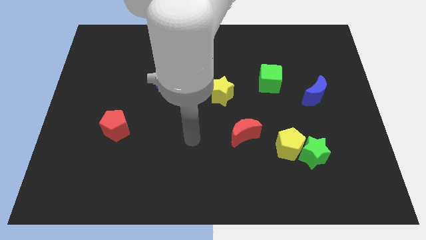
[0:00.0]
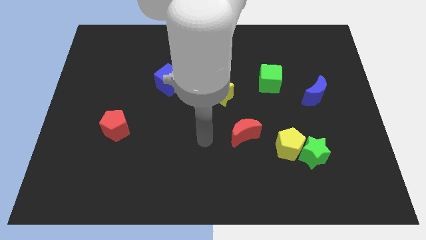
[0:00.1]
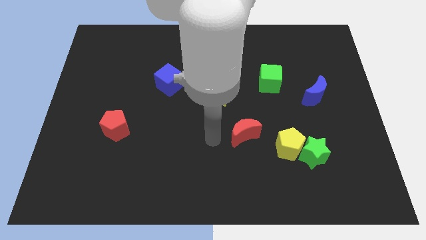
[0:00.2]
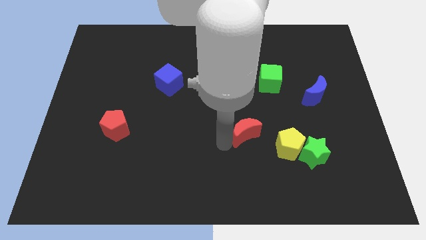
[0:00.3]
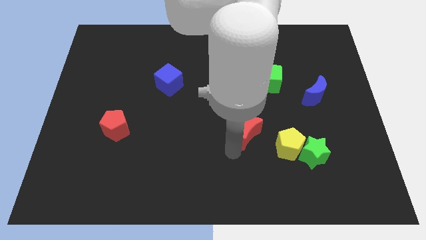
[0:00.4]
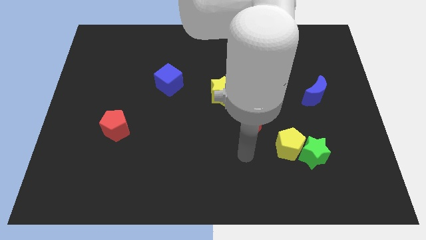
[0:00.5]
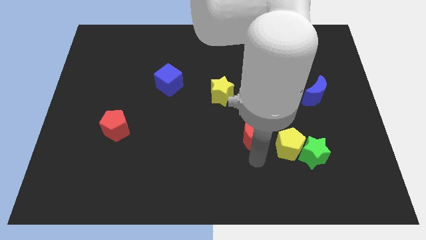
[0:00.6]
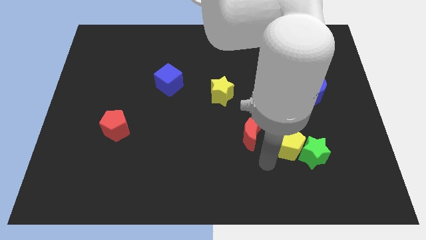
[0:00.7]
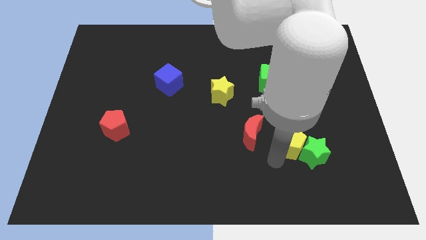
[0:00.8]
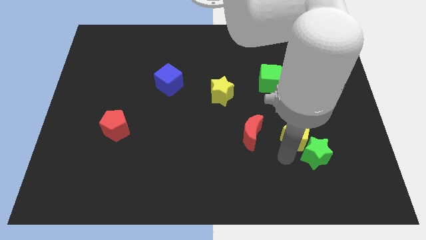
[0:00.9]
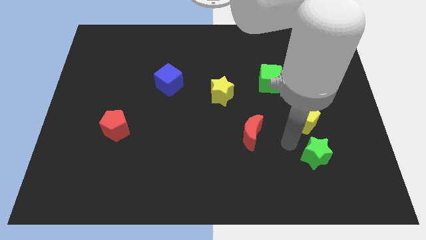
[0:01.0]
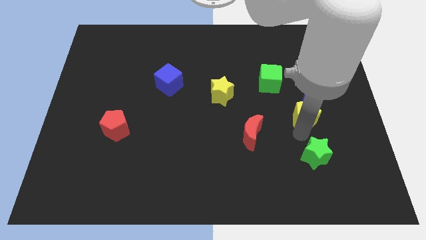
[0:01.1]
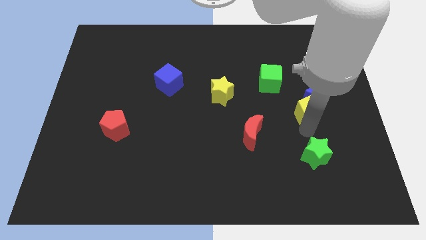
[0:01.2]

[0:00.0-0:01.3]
separate the green star from the yellow pentagon

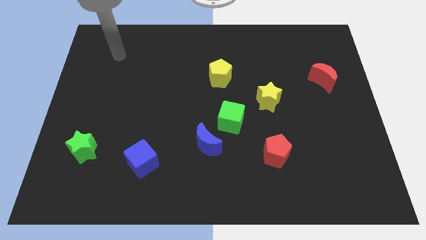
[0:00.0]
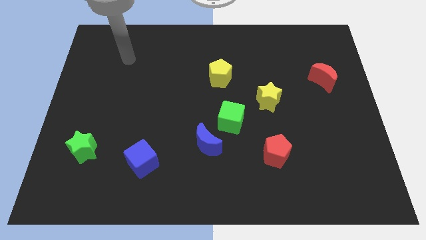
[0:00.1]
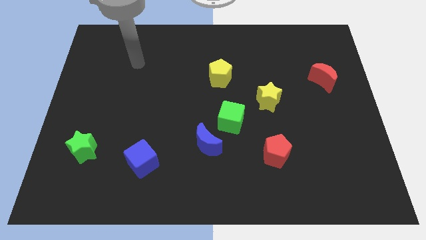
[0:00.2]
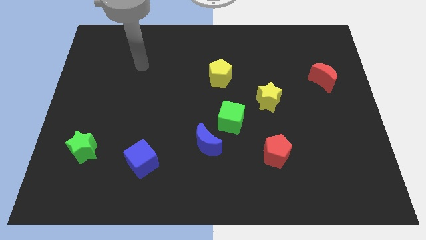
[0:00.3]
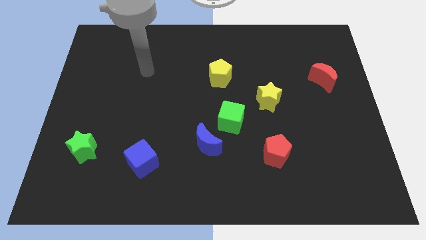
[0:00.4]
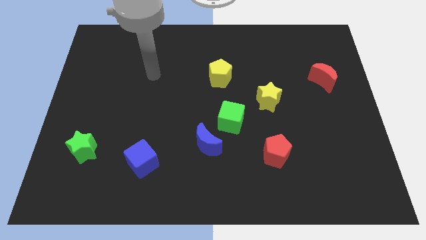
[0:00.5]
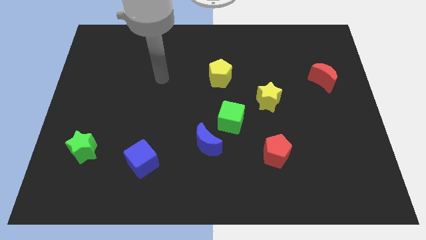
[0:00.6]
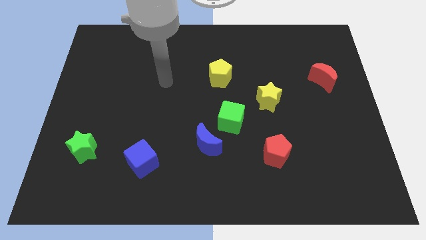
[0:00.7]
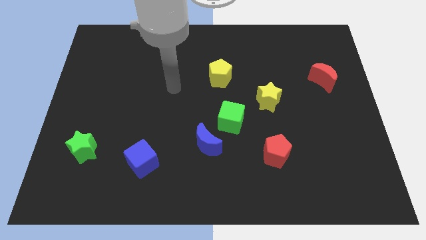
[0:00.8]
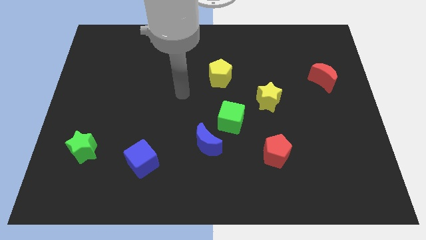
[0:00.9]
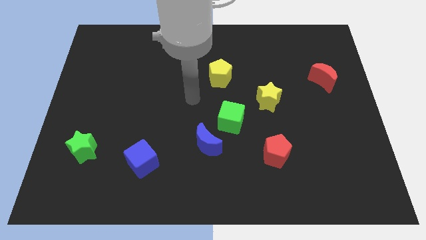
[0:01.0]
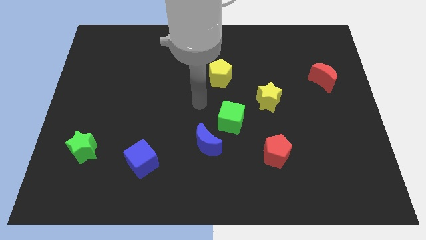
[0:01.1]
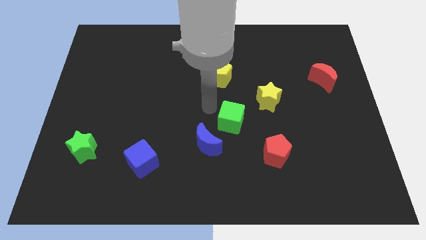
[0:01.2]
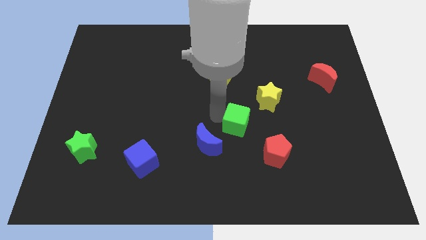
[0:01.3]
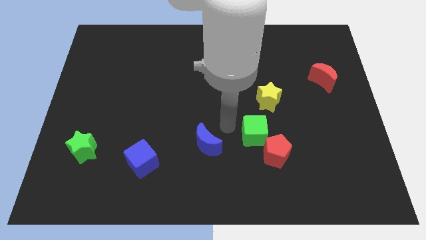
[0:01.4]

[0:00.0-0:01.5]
move the blue moon away from the green cube

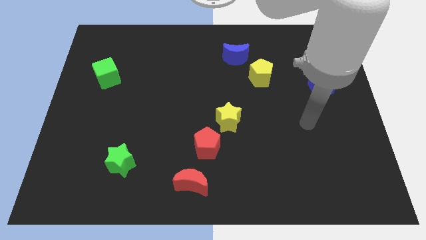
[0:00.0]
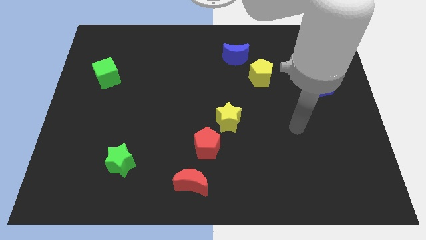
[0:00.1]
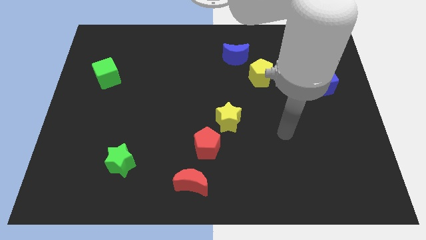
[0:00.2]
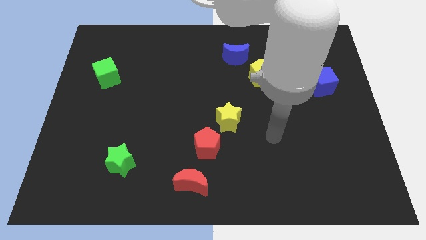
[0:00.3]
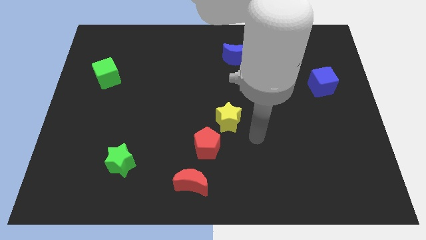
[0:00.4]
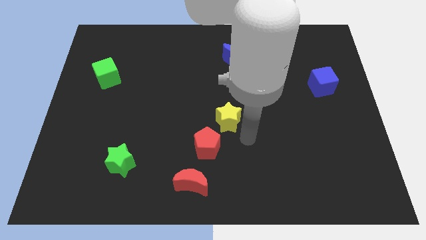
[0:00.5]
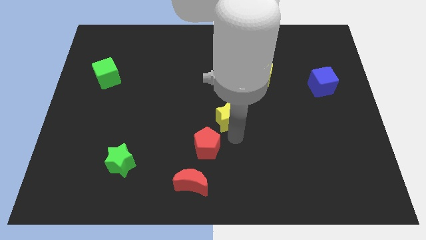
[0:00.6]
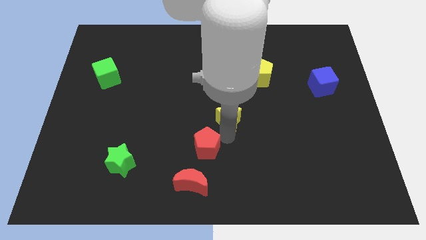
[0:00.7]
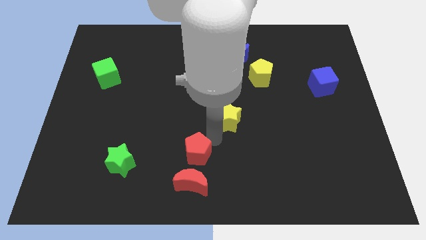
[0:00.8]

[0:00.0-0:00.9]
move the yellow star away from the red pentagon

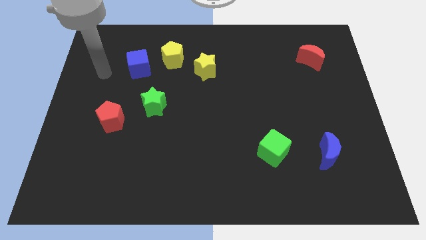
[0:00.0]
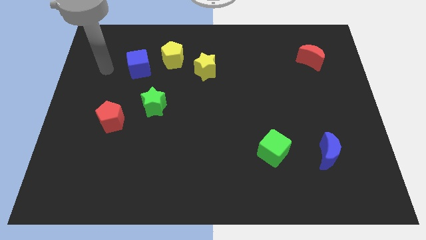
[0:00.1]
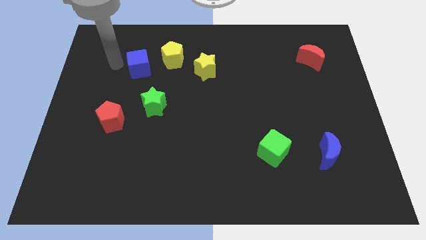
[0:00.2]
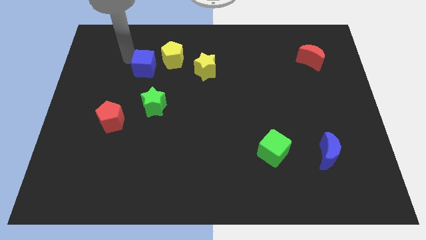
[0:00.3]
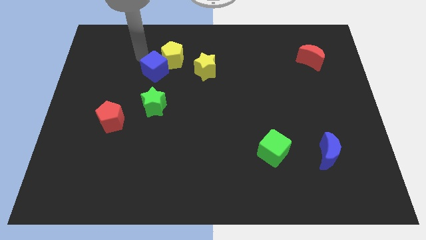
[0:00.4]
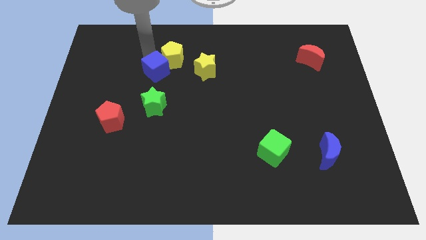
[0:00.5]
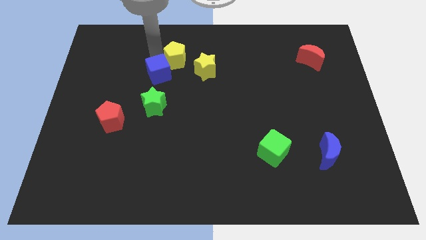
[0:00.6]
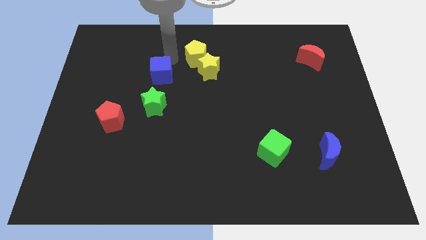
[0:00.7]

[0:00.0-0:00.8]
pull the blue cube apart from the yellow pentagon

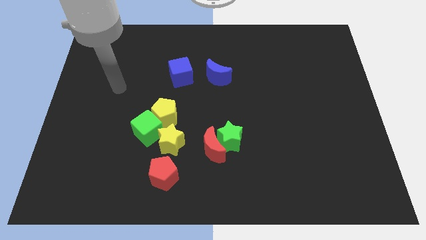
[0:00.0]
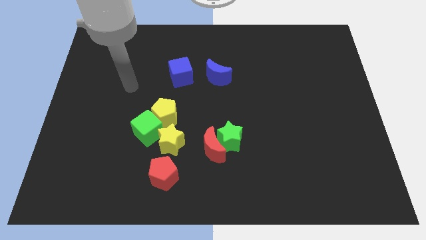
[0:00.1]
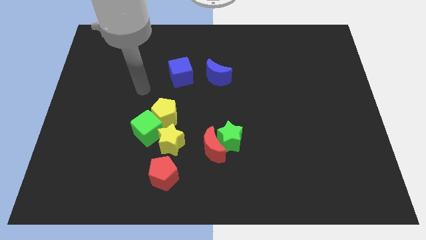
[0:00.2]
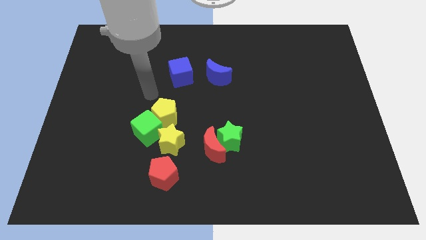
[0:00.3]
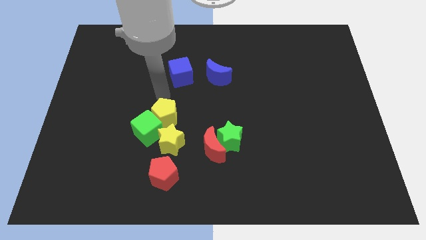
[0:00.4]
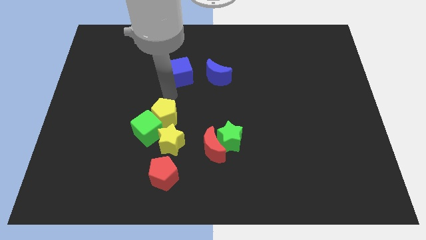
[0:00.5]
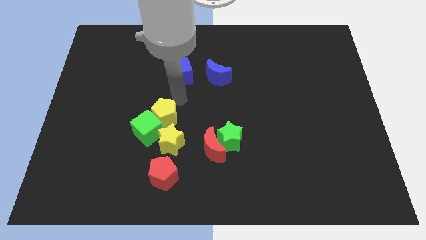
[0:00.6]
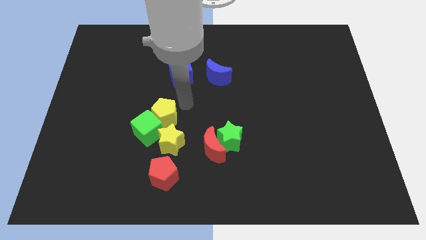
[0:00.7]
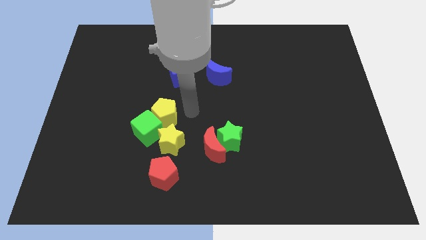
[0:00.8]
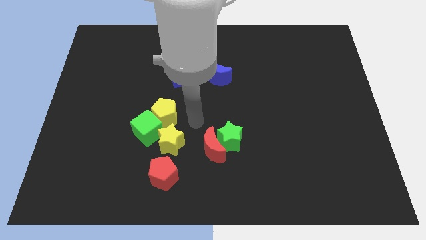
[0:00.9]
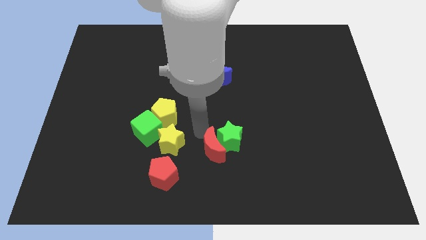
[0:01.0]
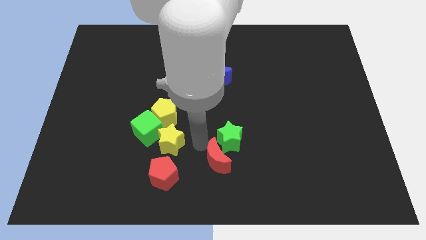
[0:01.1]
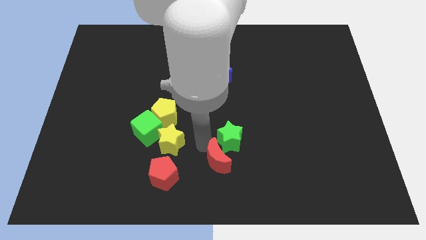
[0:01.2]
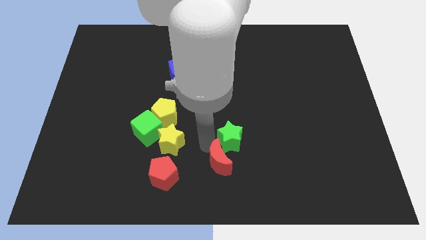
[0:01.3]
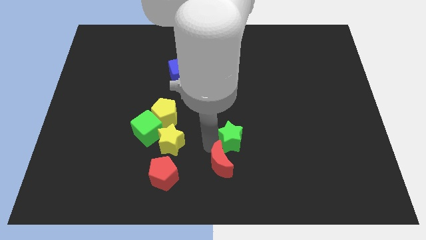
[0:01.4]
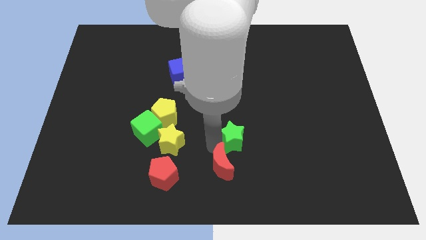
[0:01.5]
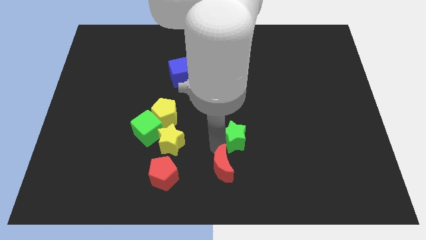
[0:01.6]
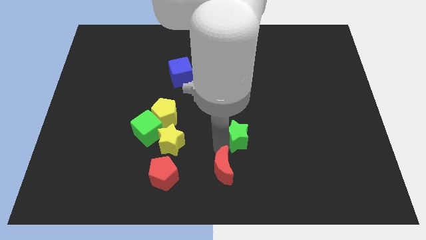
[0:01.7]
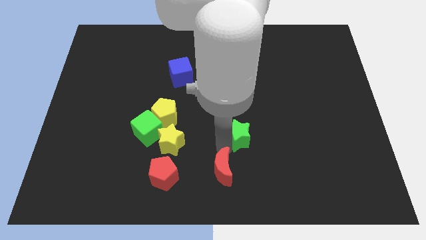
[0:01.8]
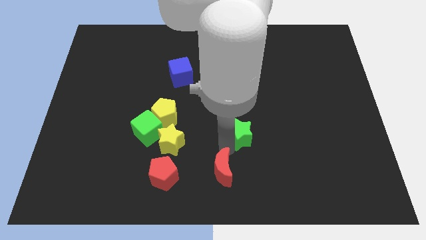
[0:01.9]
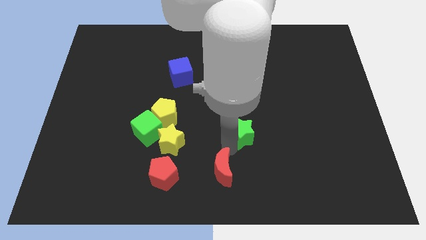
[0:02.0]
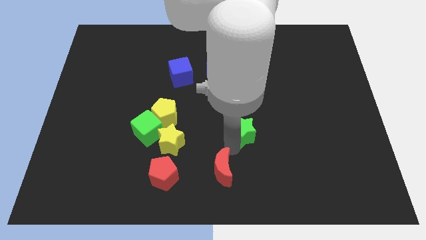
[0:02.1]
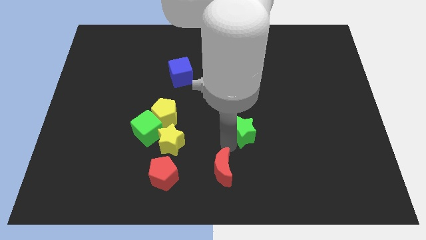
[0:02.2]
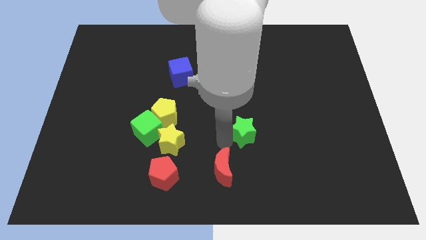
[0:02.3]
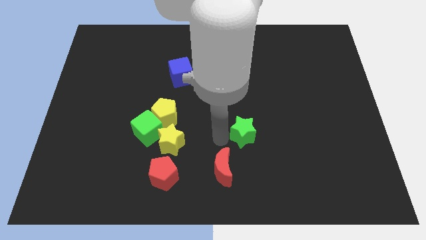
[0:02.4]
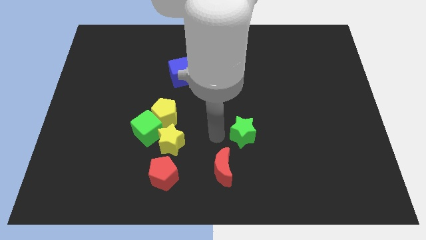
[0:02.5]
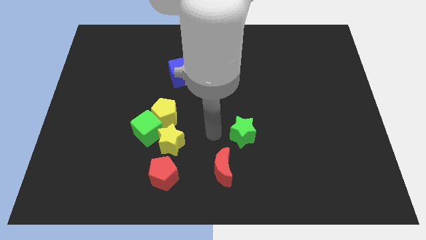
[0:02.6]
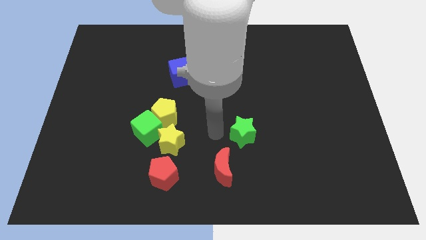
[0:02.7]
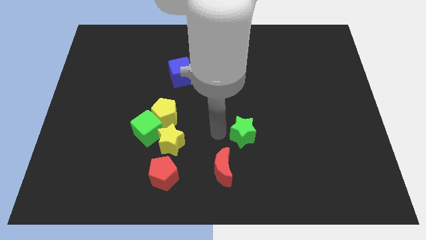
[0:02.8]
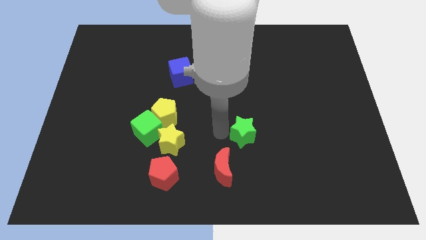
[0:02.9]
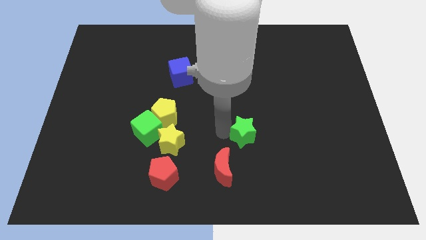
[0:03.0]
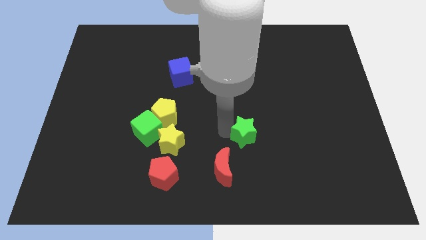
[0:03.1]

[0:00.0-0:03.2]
separate the green star from the red moon

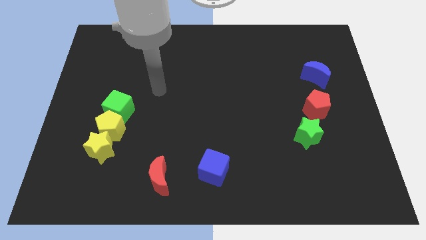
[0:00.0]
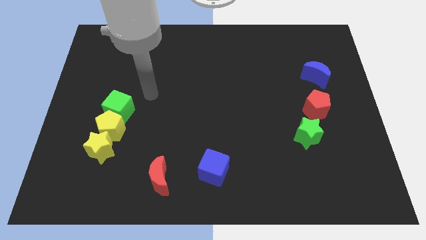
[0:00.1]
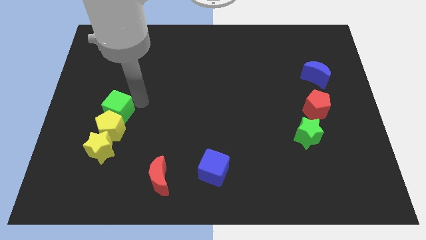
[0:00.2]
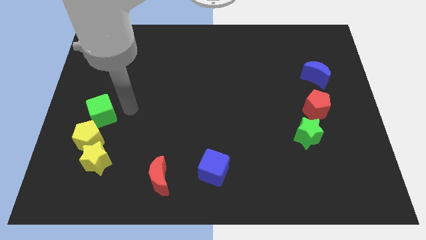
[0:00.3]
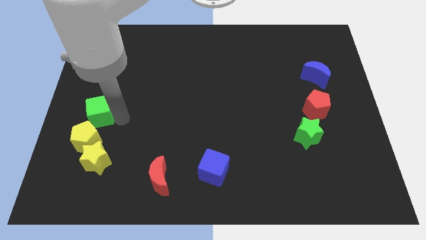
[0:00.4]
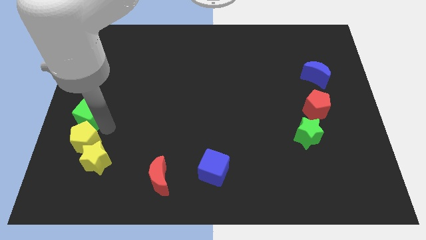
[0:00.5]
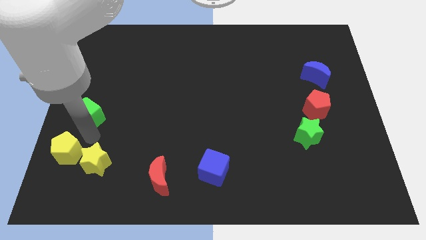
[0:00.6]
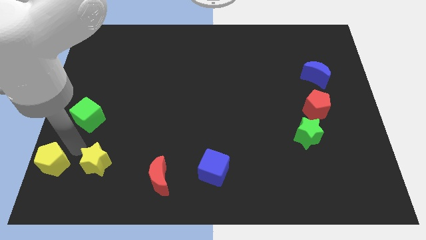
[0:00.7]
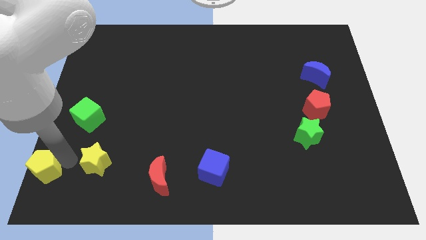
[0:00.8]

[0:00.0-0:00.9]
move the yellow star away from the yellow pentagon

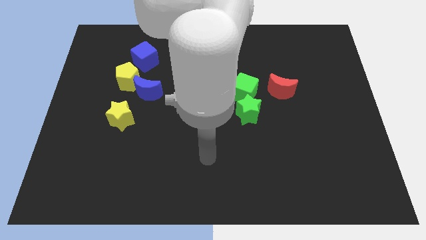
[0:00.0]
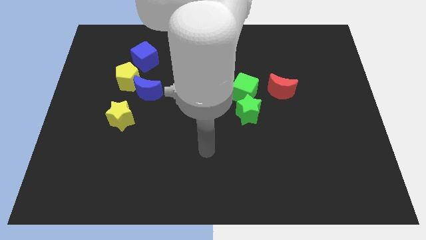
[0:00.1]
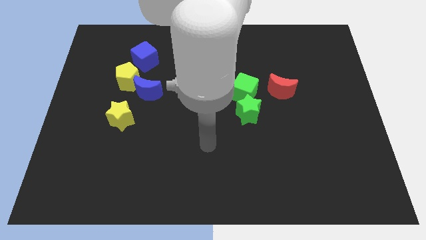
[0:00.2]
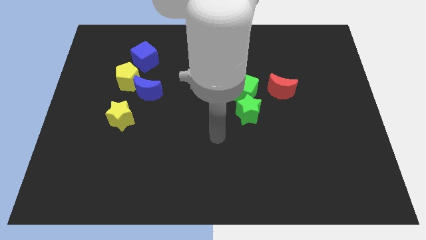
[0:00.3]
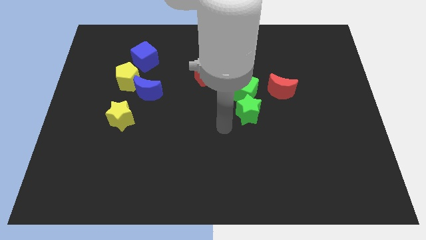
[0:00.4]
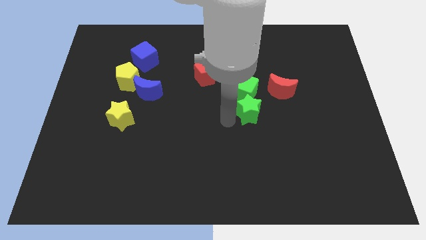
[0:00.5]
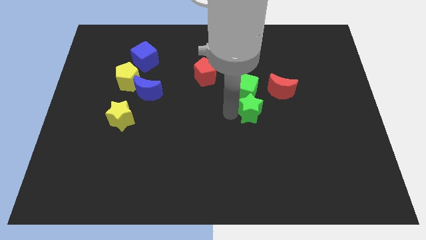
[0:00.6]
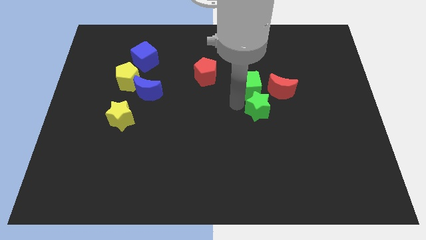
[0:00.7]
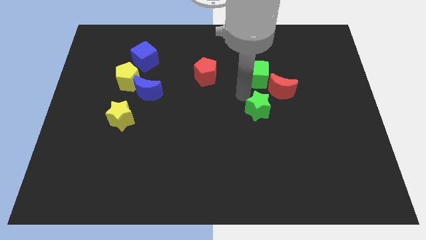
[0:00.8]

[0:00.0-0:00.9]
pull the green star apart from the green cube

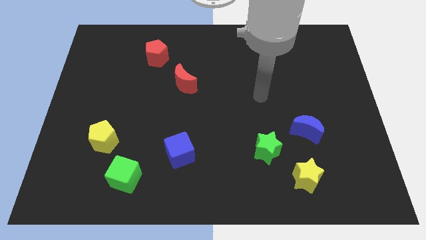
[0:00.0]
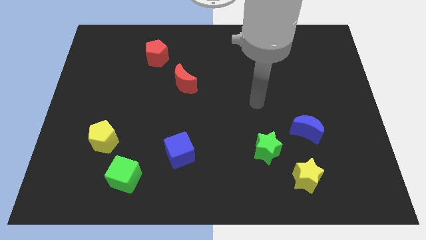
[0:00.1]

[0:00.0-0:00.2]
move the green star away from the yellow star
